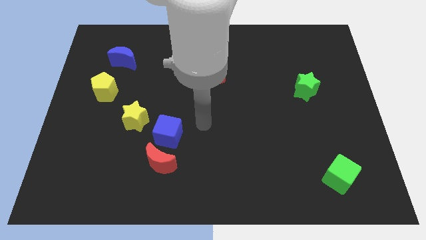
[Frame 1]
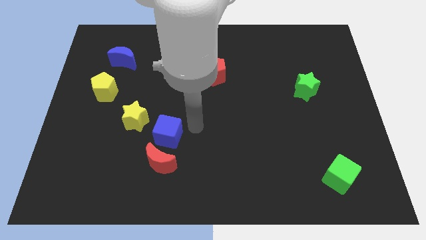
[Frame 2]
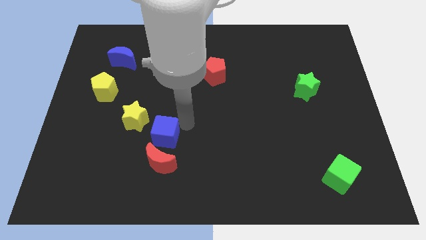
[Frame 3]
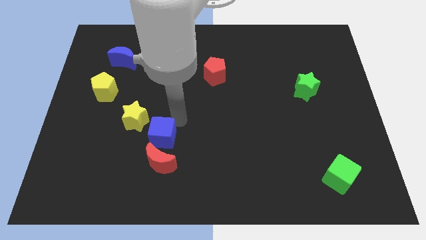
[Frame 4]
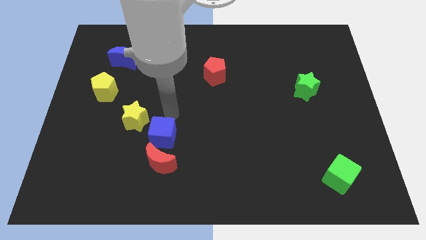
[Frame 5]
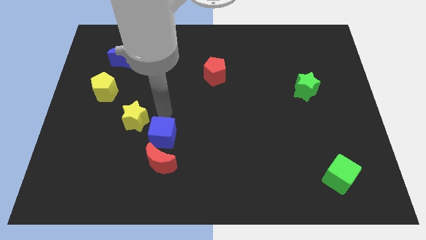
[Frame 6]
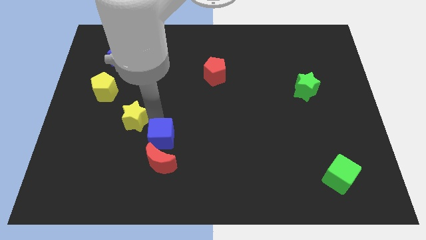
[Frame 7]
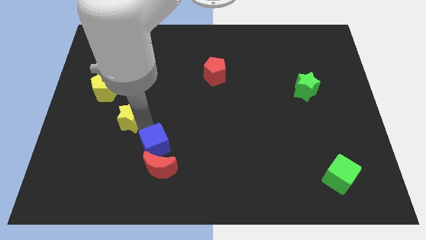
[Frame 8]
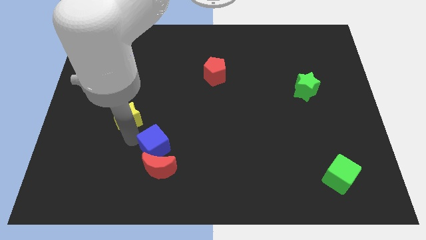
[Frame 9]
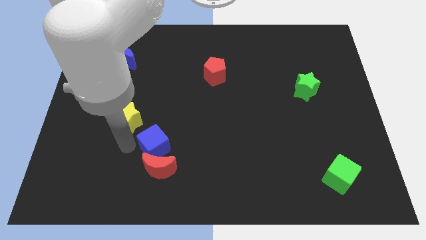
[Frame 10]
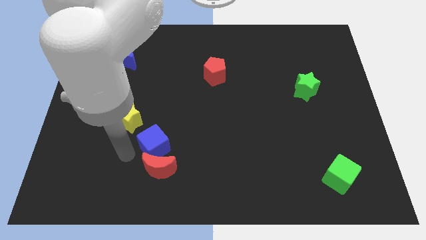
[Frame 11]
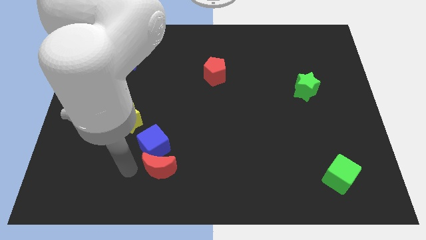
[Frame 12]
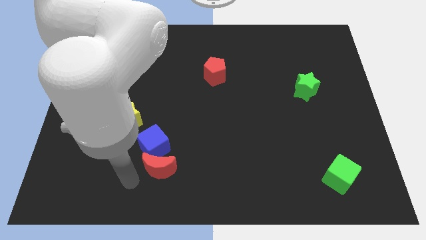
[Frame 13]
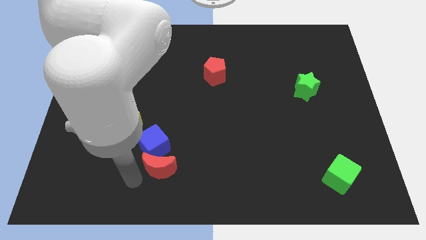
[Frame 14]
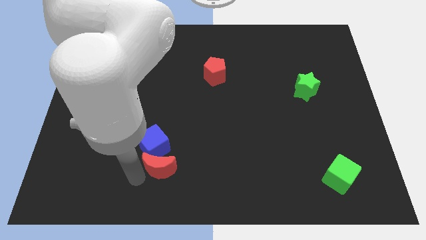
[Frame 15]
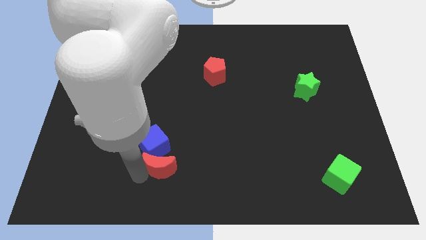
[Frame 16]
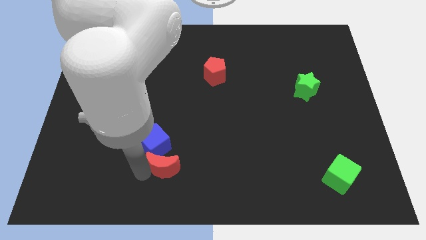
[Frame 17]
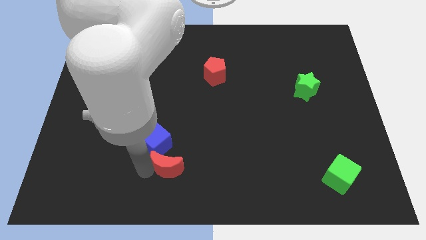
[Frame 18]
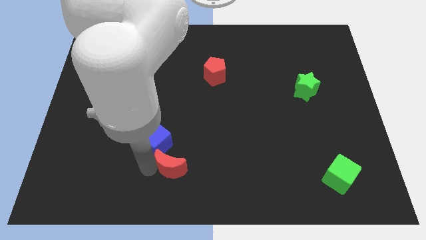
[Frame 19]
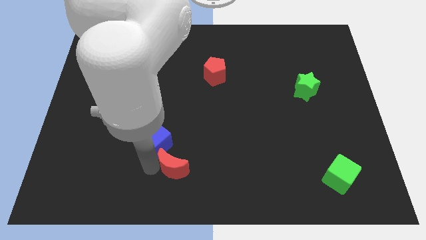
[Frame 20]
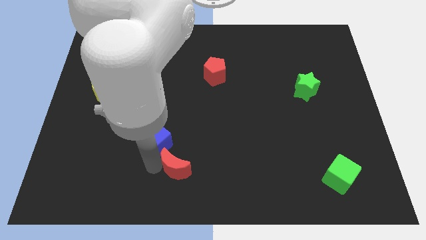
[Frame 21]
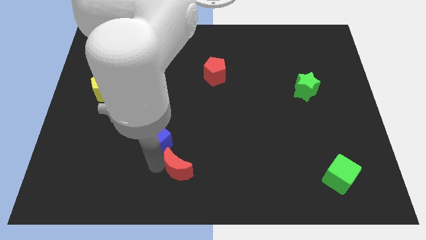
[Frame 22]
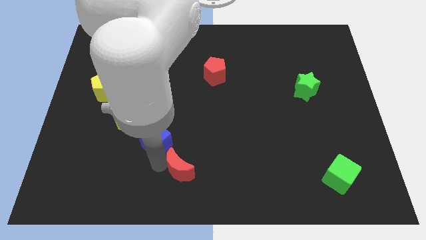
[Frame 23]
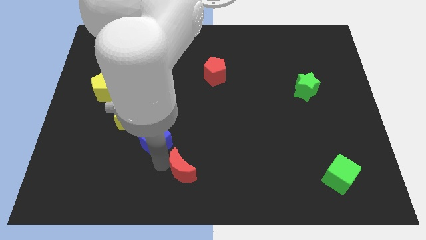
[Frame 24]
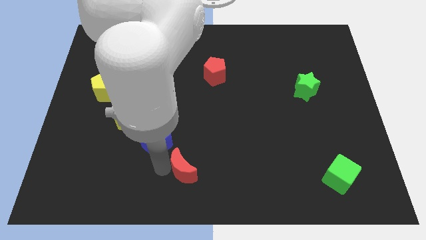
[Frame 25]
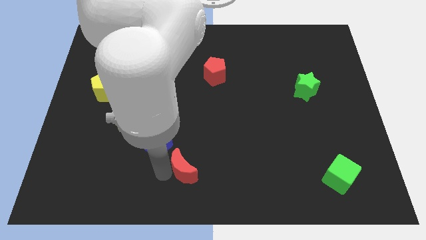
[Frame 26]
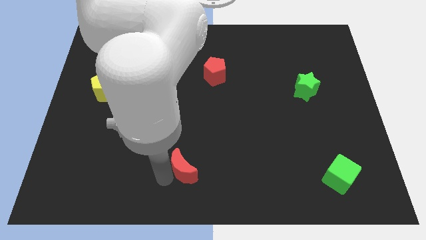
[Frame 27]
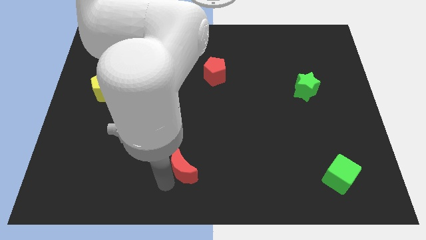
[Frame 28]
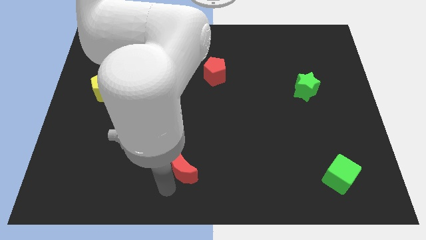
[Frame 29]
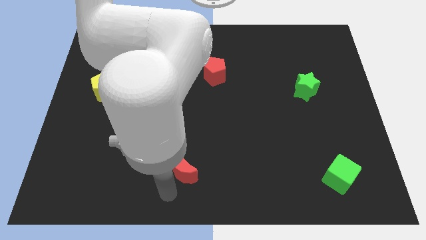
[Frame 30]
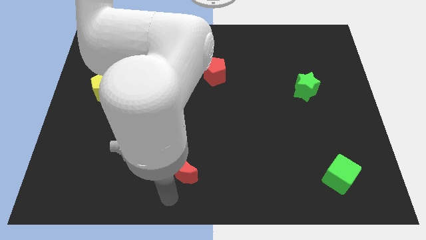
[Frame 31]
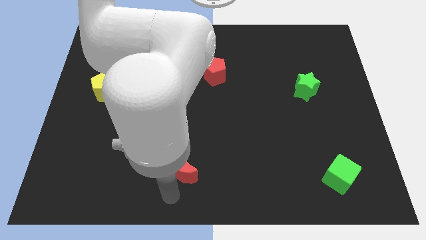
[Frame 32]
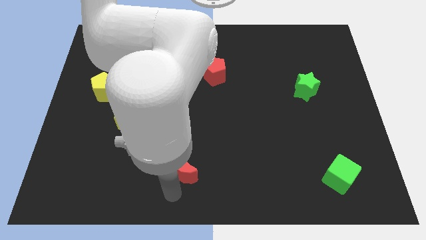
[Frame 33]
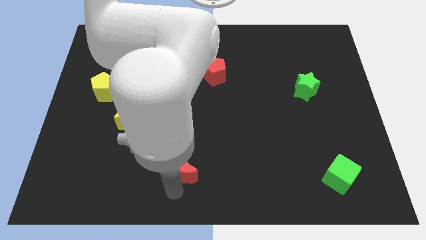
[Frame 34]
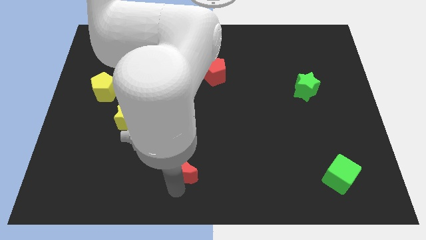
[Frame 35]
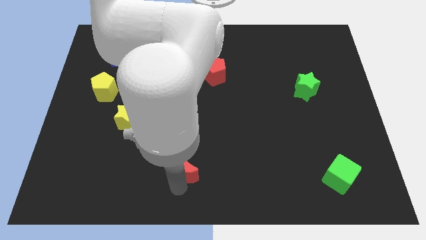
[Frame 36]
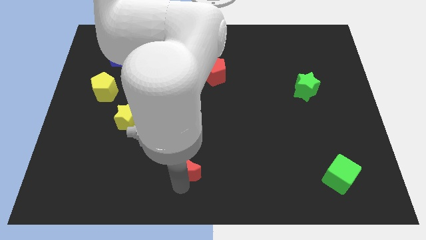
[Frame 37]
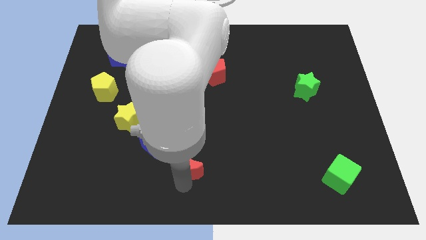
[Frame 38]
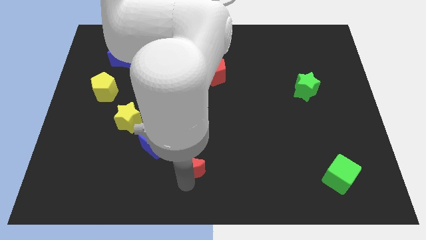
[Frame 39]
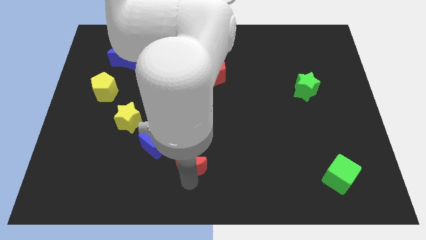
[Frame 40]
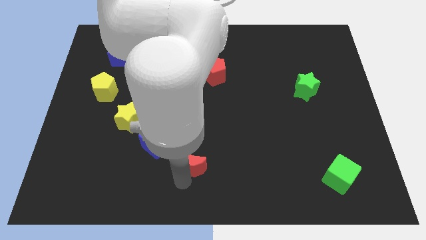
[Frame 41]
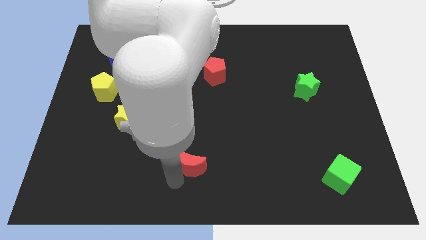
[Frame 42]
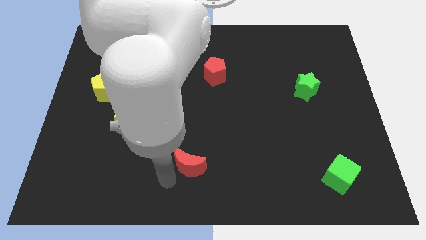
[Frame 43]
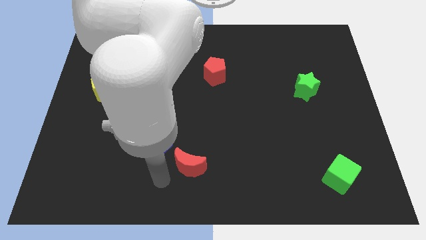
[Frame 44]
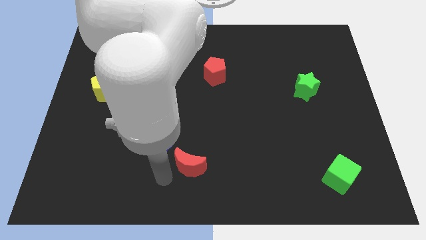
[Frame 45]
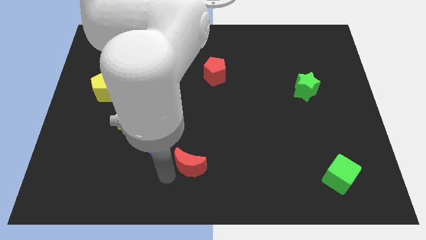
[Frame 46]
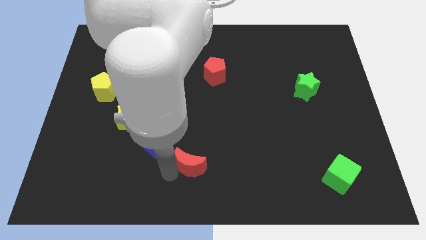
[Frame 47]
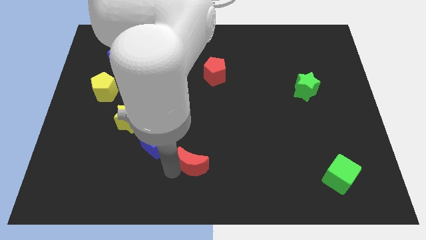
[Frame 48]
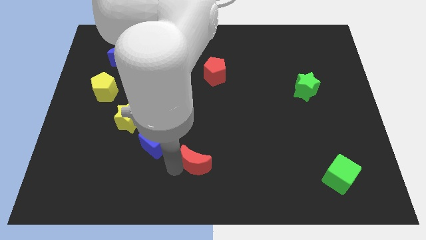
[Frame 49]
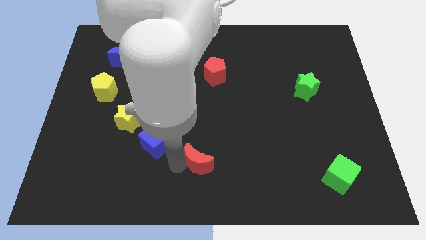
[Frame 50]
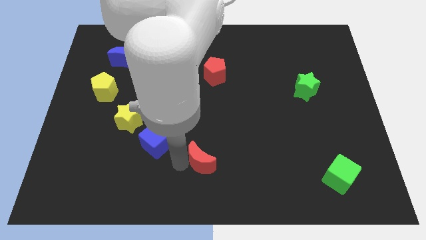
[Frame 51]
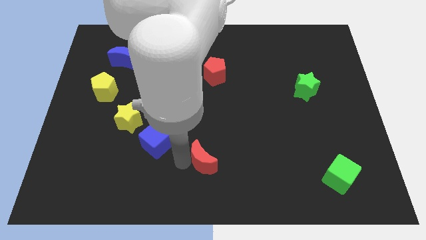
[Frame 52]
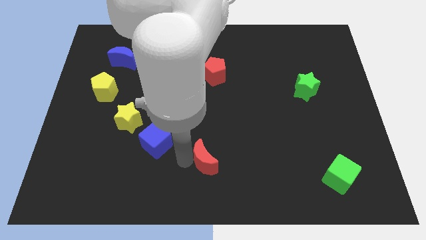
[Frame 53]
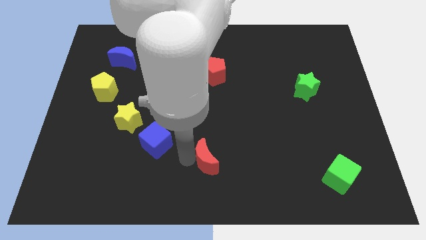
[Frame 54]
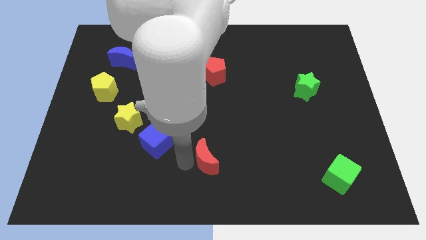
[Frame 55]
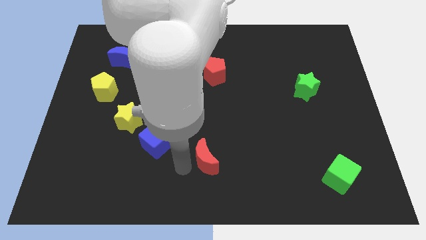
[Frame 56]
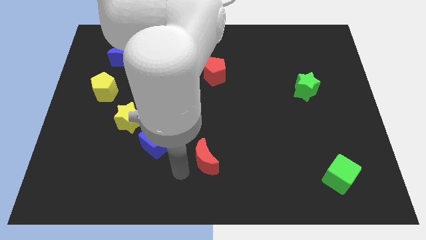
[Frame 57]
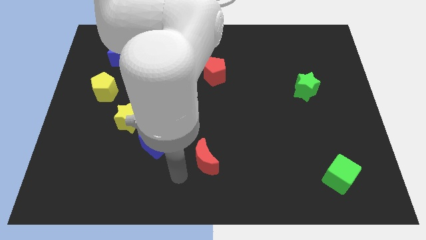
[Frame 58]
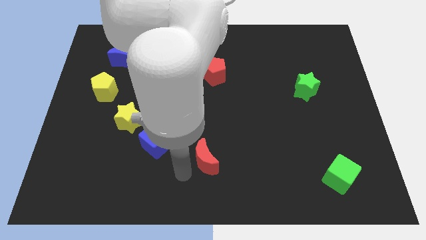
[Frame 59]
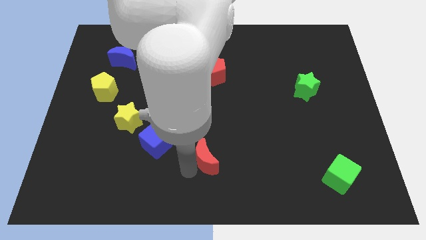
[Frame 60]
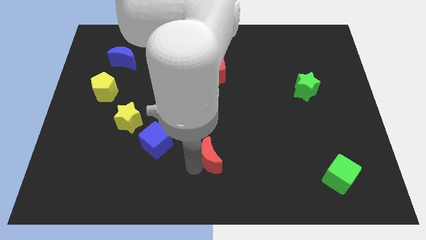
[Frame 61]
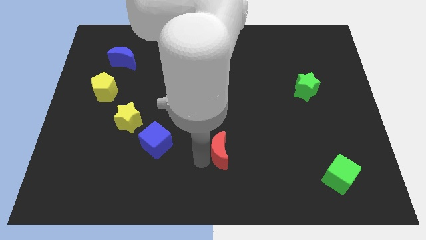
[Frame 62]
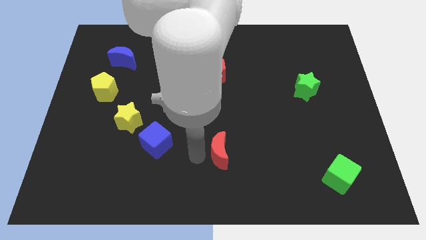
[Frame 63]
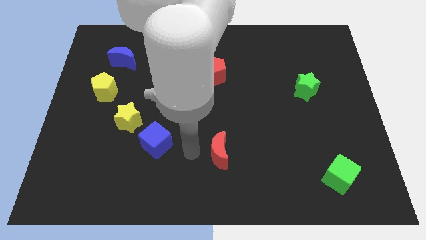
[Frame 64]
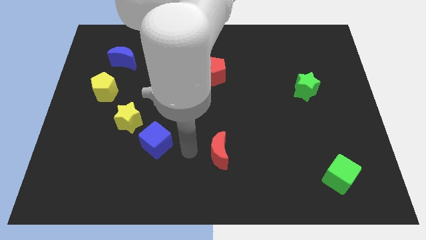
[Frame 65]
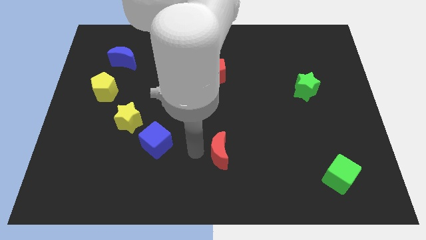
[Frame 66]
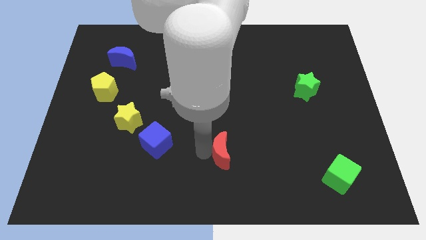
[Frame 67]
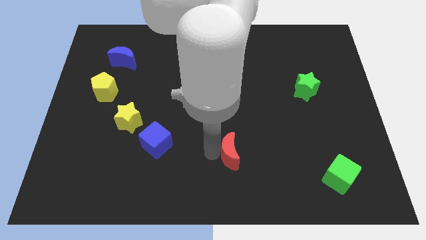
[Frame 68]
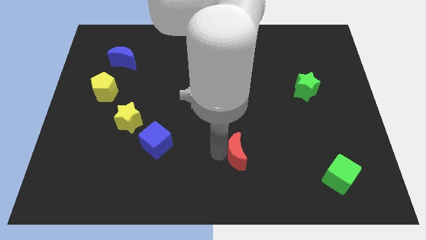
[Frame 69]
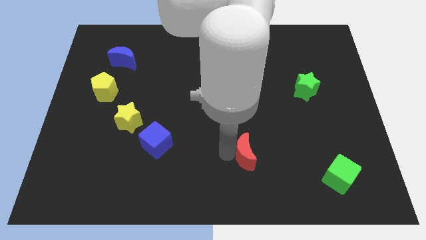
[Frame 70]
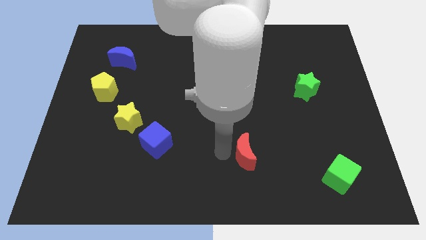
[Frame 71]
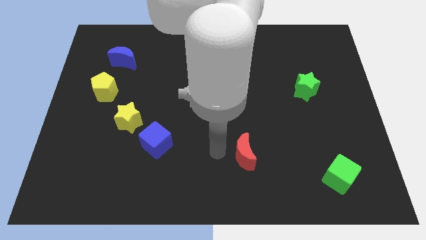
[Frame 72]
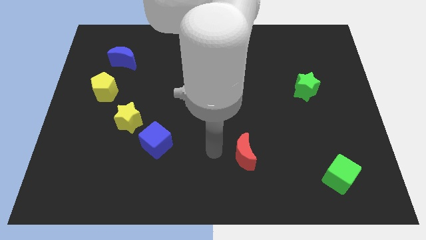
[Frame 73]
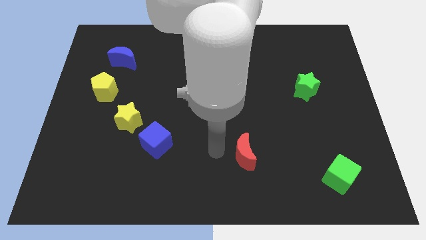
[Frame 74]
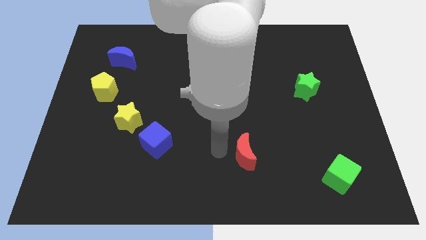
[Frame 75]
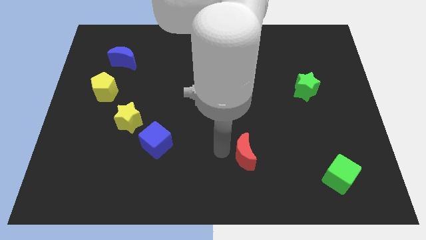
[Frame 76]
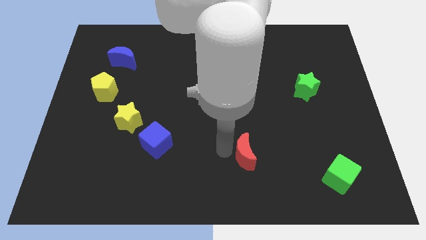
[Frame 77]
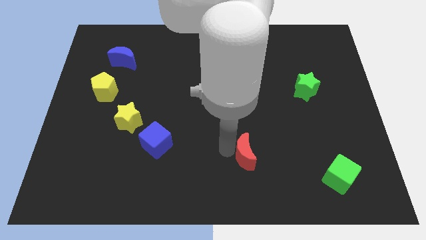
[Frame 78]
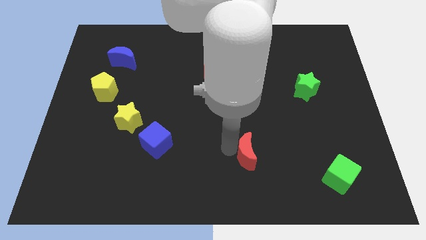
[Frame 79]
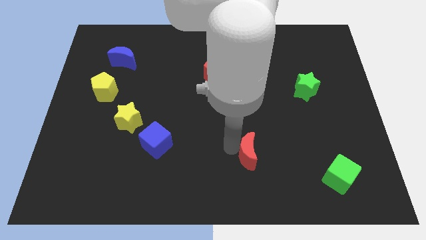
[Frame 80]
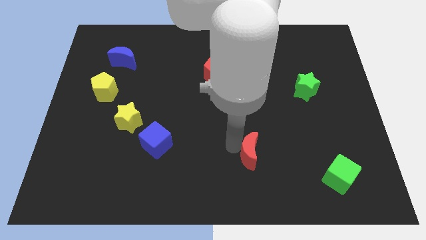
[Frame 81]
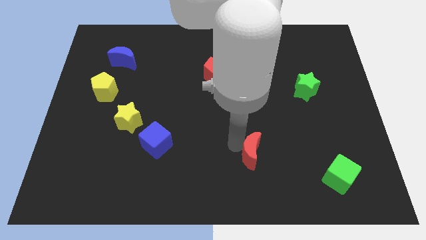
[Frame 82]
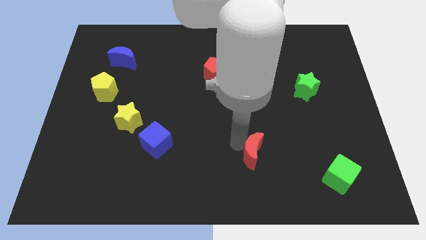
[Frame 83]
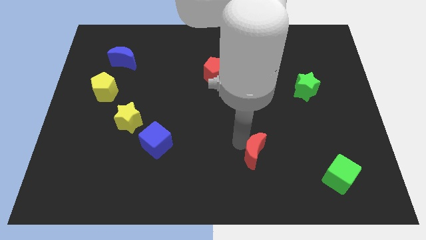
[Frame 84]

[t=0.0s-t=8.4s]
move the red moon right
